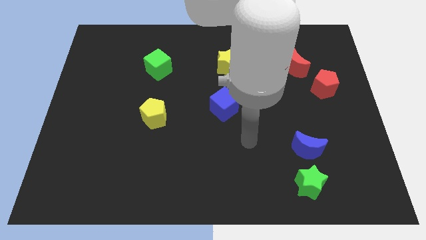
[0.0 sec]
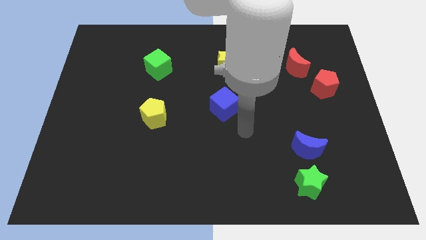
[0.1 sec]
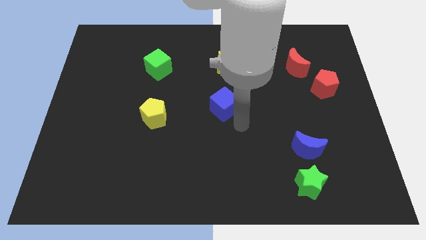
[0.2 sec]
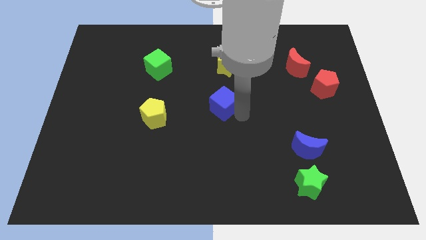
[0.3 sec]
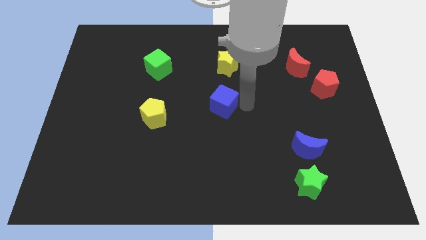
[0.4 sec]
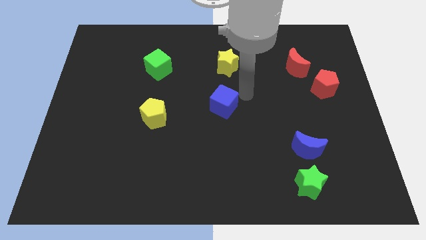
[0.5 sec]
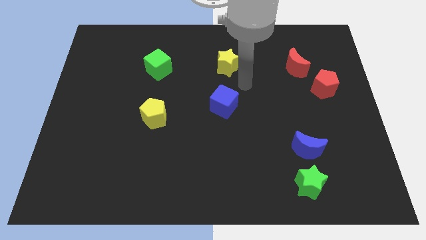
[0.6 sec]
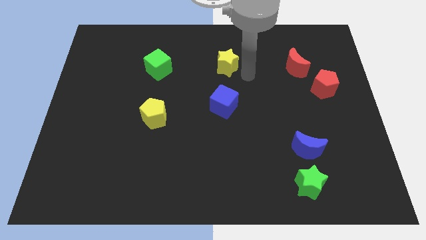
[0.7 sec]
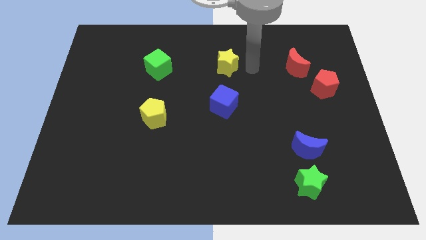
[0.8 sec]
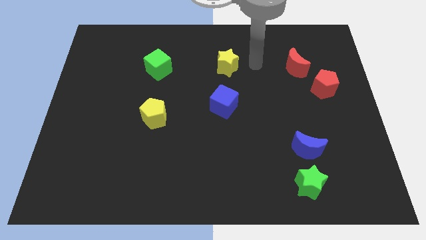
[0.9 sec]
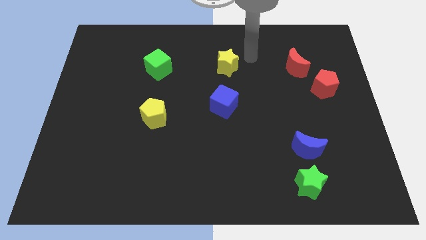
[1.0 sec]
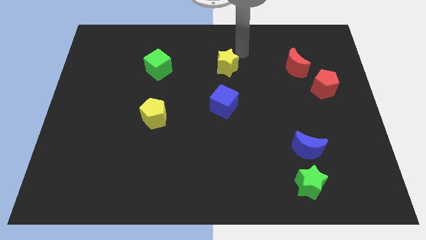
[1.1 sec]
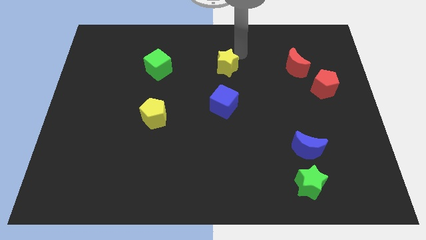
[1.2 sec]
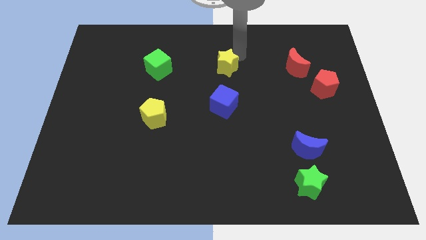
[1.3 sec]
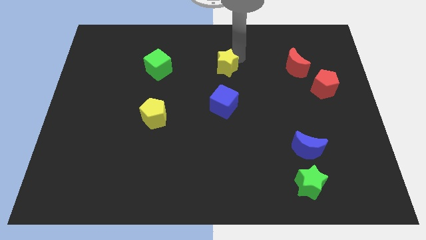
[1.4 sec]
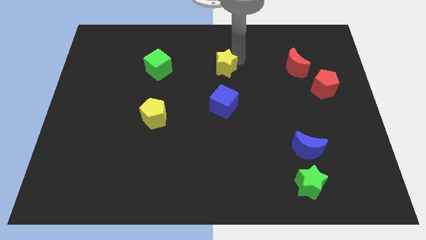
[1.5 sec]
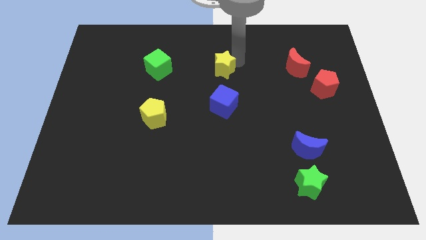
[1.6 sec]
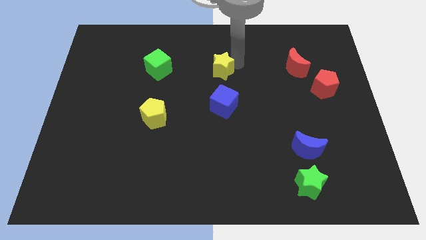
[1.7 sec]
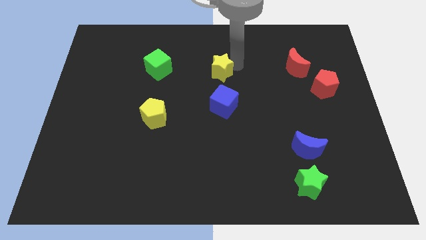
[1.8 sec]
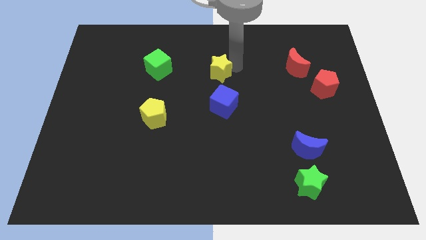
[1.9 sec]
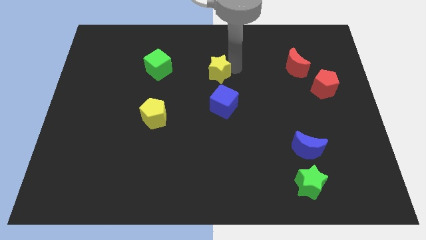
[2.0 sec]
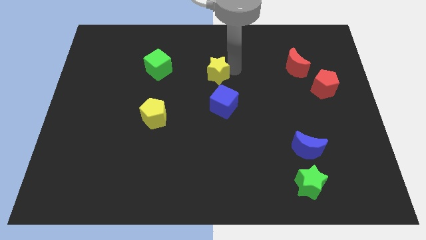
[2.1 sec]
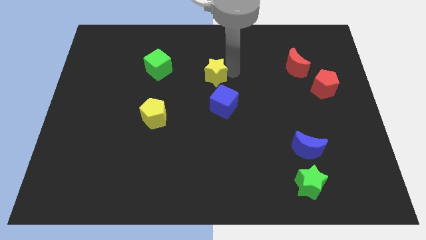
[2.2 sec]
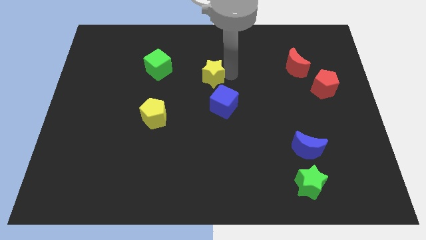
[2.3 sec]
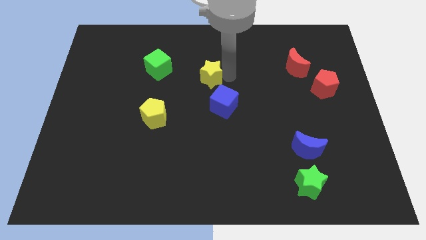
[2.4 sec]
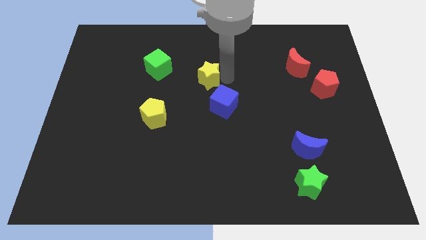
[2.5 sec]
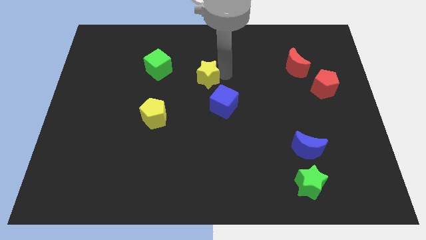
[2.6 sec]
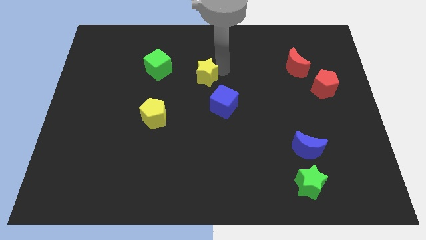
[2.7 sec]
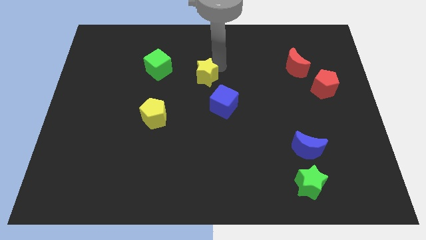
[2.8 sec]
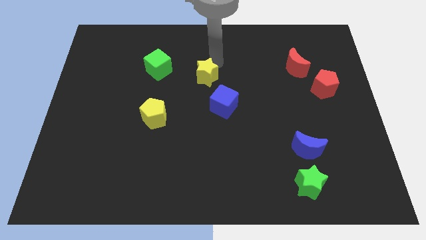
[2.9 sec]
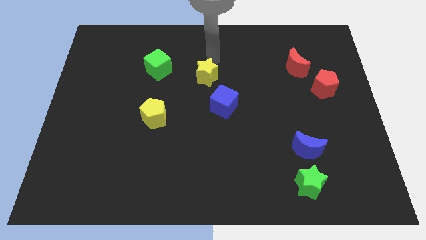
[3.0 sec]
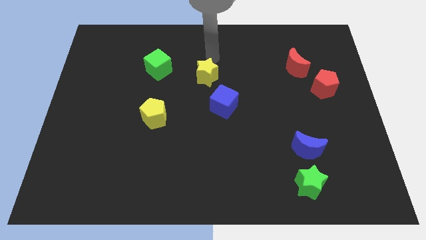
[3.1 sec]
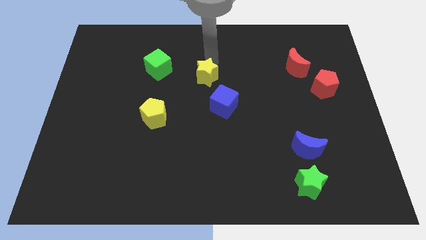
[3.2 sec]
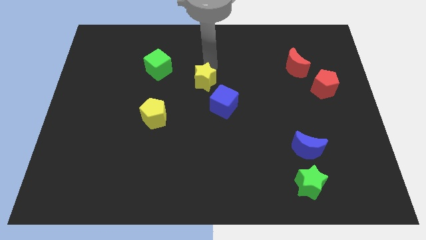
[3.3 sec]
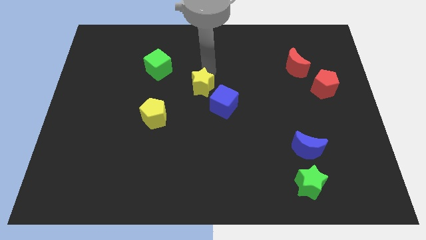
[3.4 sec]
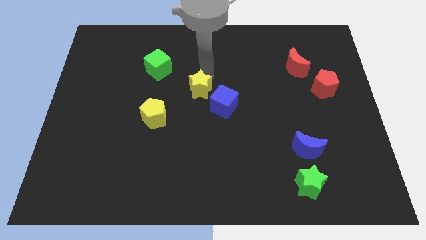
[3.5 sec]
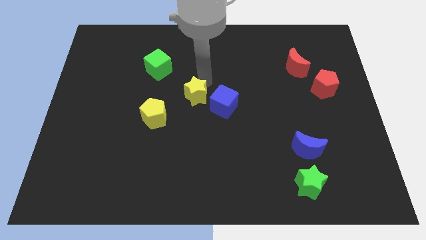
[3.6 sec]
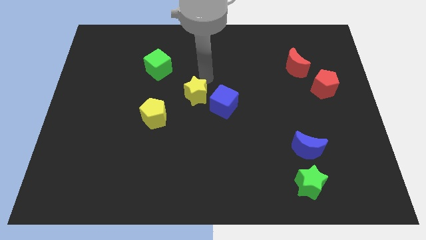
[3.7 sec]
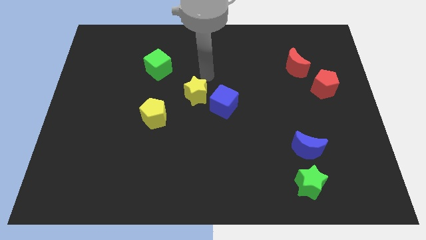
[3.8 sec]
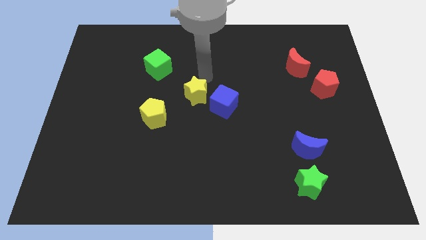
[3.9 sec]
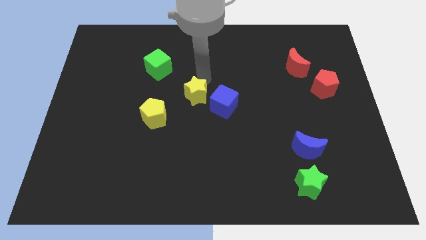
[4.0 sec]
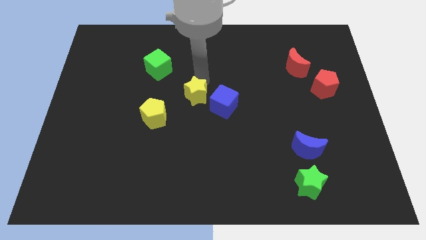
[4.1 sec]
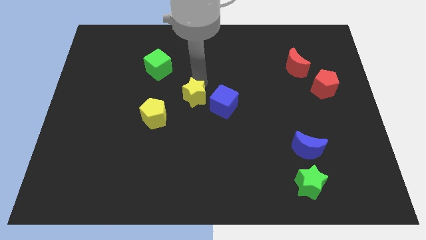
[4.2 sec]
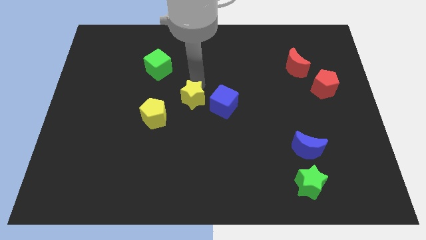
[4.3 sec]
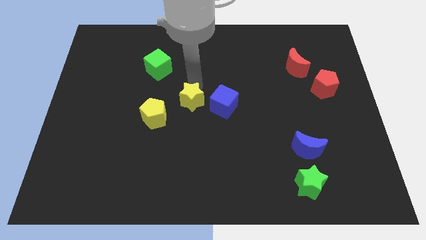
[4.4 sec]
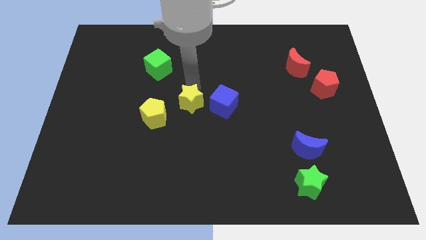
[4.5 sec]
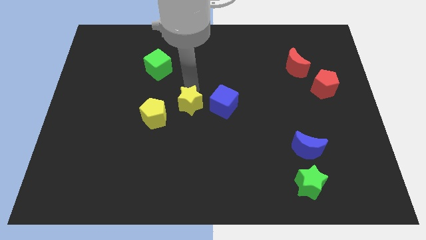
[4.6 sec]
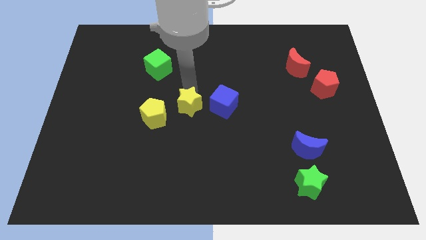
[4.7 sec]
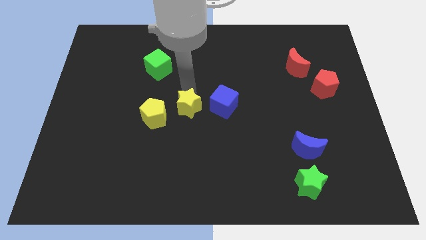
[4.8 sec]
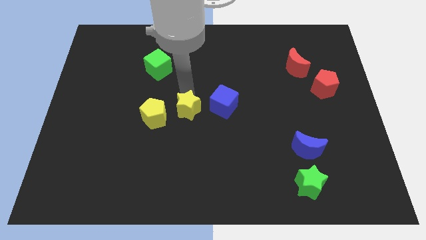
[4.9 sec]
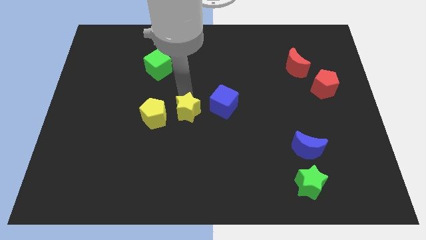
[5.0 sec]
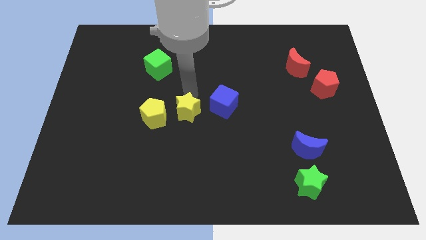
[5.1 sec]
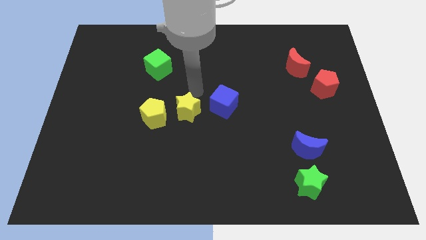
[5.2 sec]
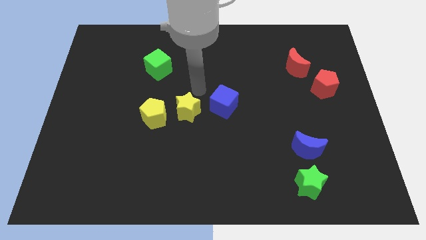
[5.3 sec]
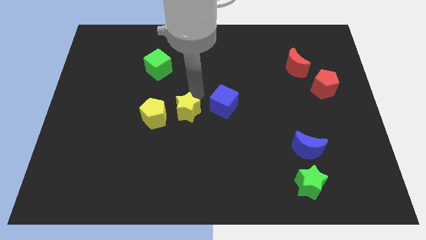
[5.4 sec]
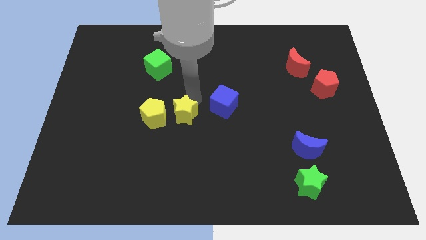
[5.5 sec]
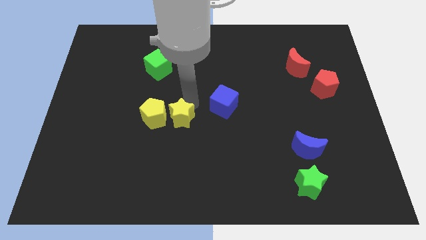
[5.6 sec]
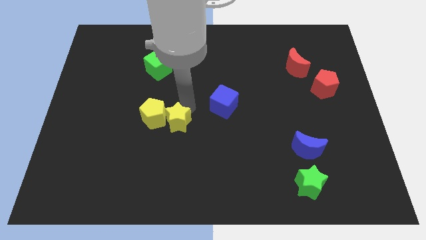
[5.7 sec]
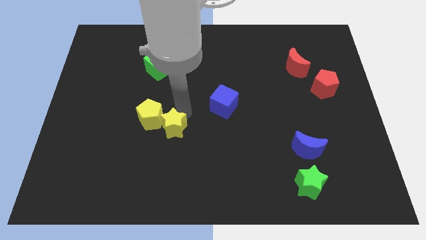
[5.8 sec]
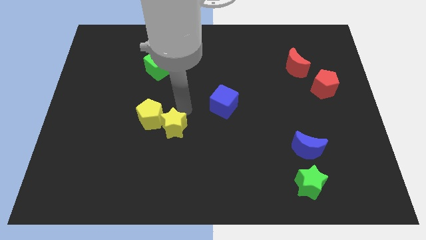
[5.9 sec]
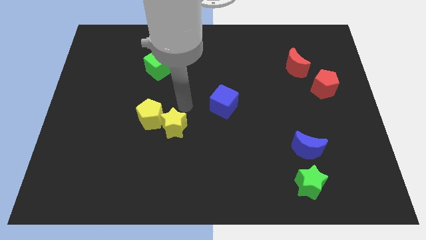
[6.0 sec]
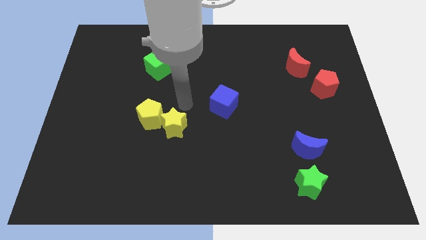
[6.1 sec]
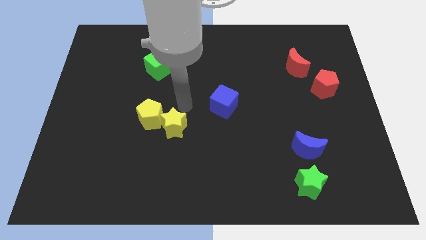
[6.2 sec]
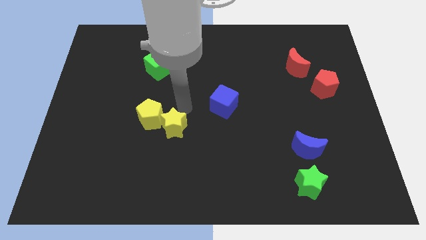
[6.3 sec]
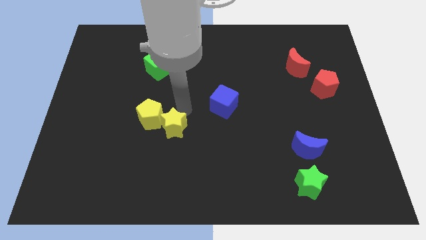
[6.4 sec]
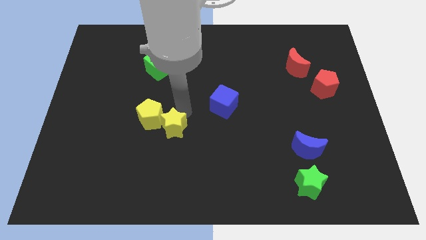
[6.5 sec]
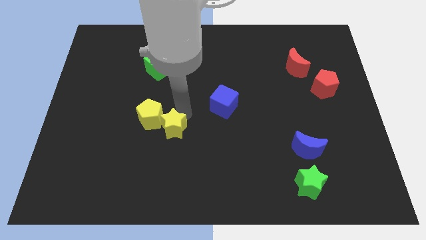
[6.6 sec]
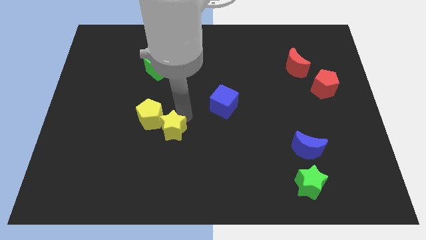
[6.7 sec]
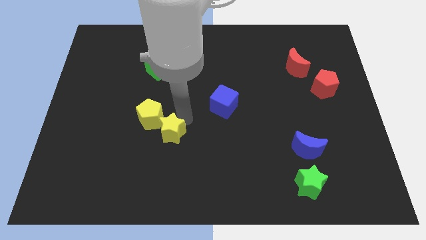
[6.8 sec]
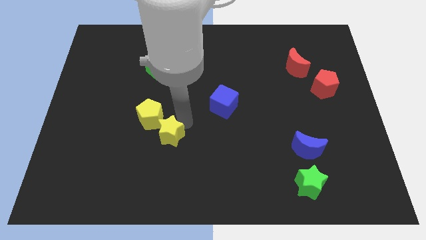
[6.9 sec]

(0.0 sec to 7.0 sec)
push the yellow star below the yellow pentagon

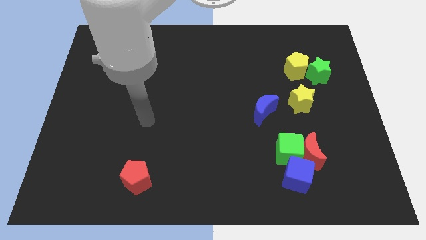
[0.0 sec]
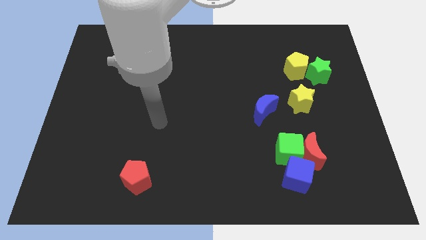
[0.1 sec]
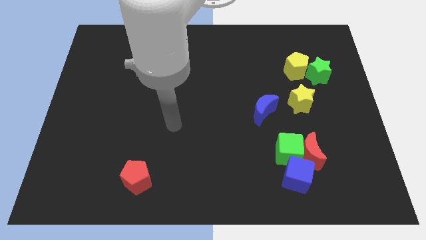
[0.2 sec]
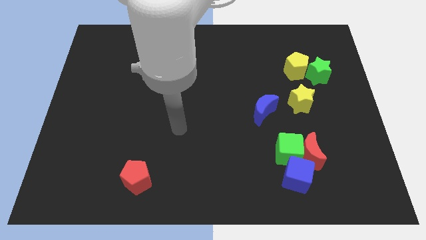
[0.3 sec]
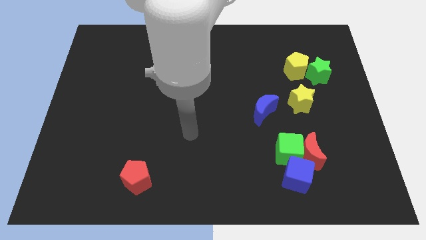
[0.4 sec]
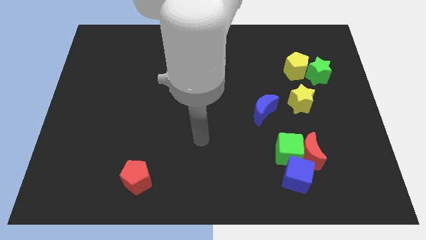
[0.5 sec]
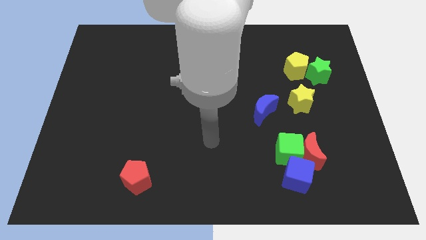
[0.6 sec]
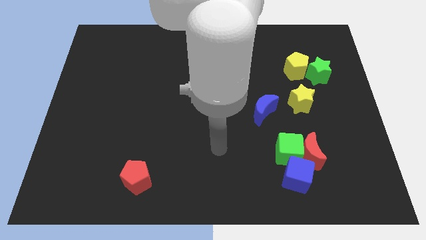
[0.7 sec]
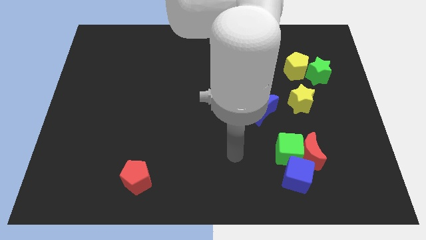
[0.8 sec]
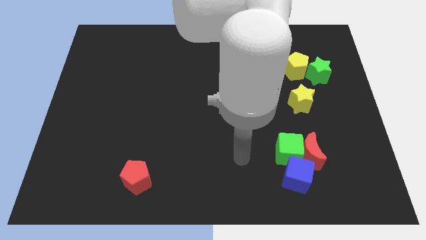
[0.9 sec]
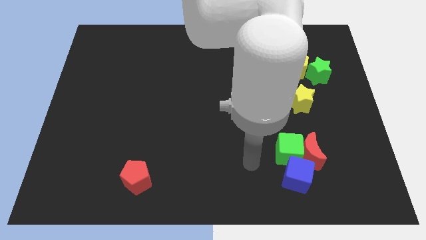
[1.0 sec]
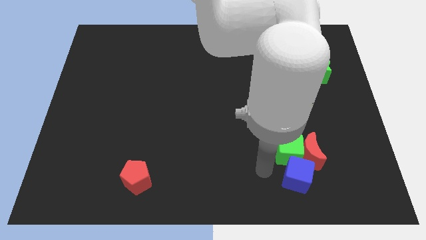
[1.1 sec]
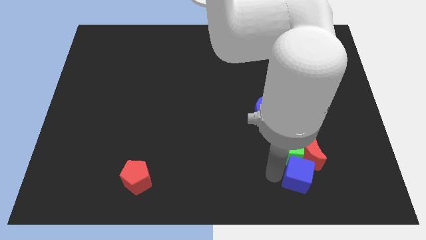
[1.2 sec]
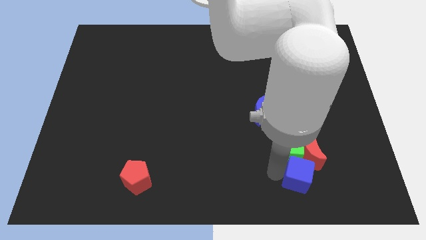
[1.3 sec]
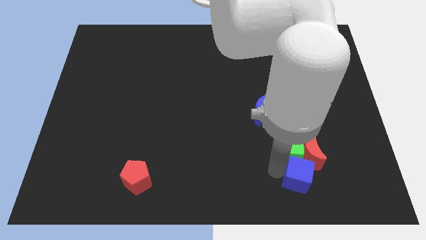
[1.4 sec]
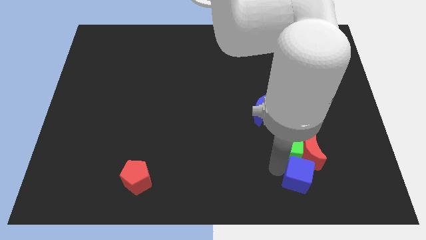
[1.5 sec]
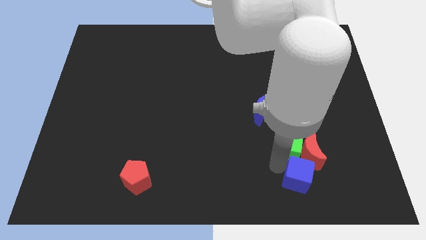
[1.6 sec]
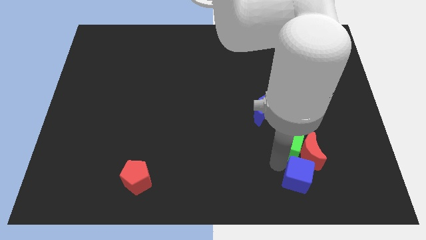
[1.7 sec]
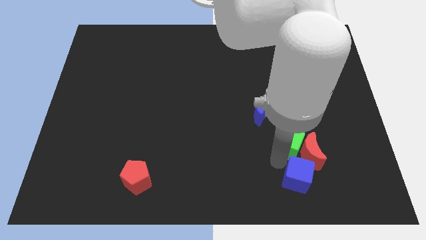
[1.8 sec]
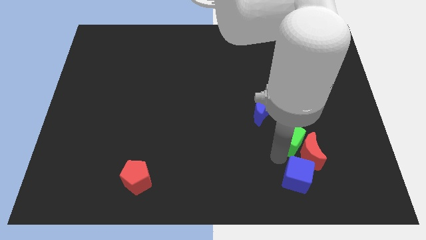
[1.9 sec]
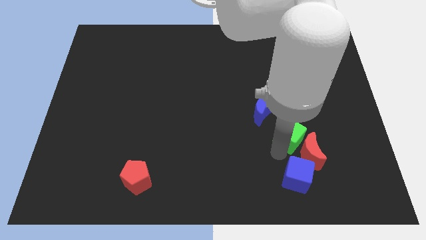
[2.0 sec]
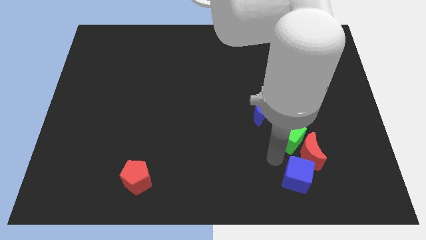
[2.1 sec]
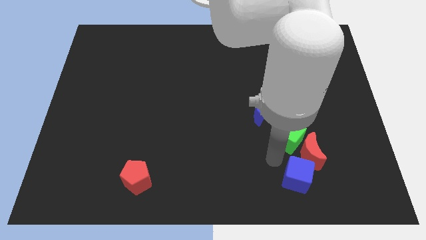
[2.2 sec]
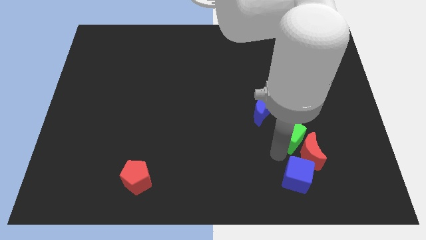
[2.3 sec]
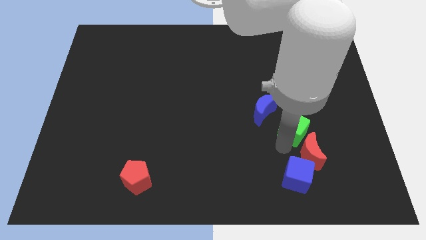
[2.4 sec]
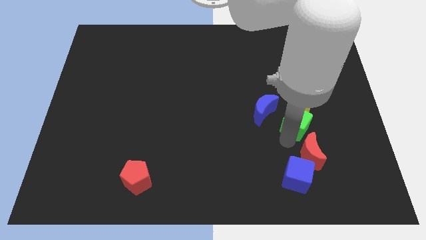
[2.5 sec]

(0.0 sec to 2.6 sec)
put the green cube to the right of the blue moon
